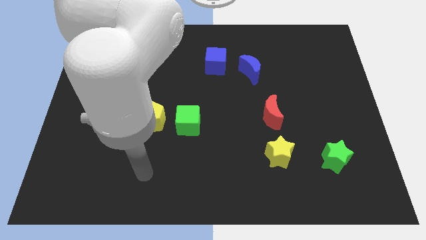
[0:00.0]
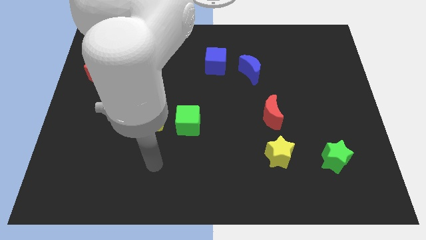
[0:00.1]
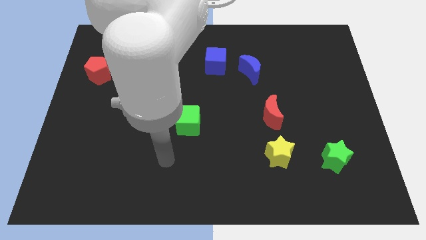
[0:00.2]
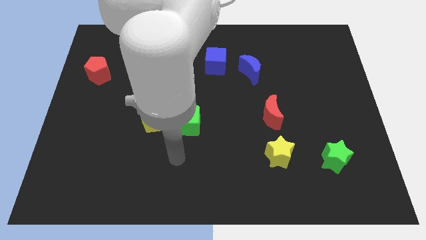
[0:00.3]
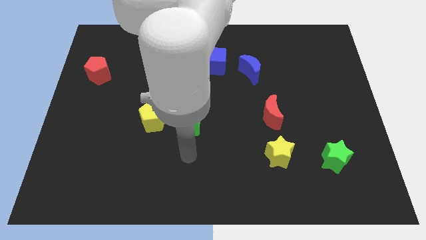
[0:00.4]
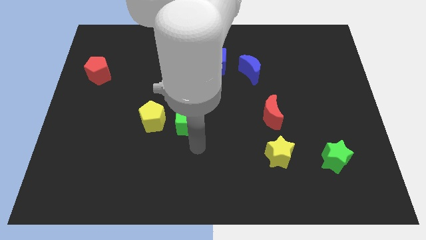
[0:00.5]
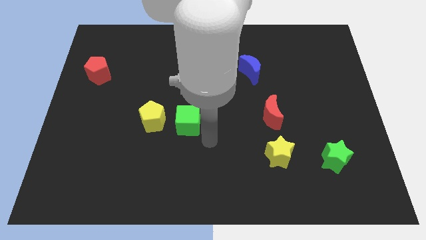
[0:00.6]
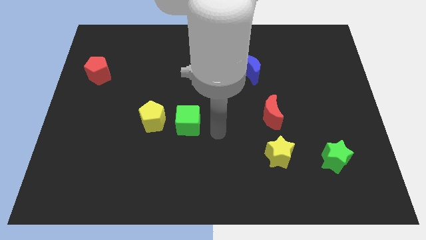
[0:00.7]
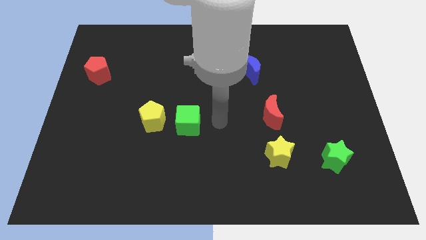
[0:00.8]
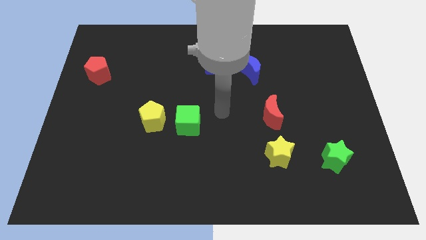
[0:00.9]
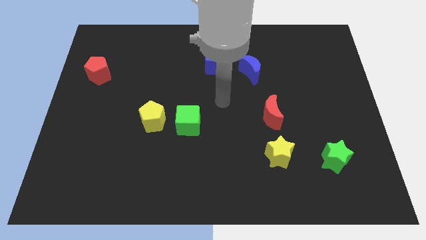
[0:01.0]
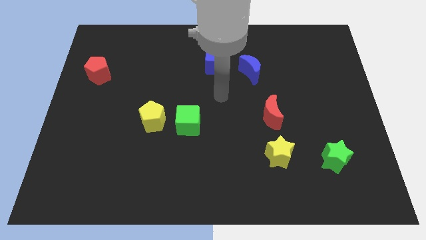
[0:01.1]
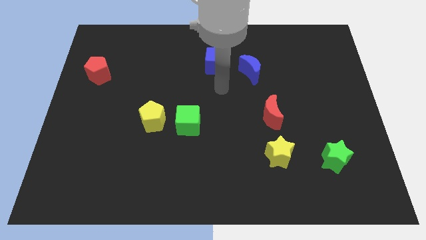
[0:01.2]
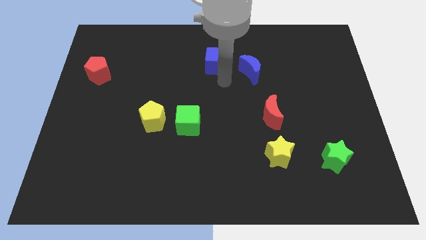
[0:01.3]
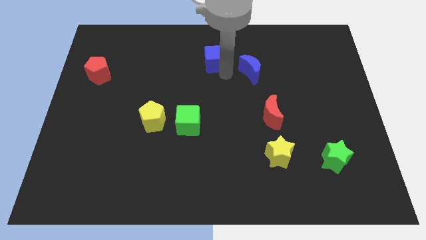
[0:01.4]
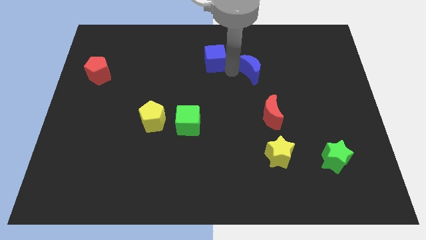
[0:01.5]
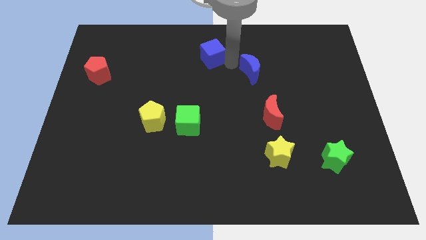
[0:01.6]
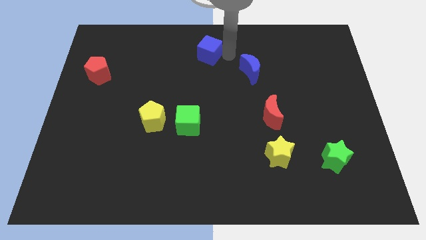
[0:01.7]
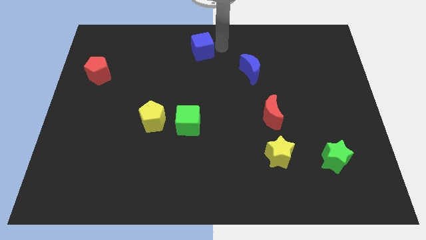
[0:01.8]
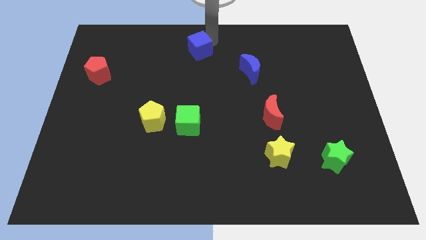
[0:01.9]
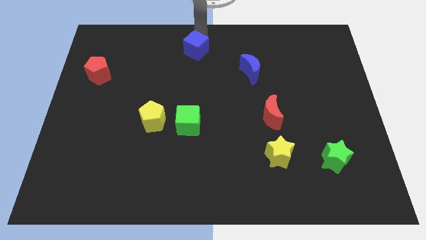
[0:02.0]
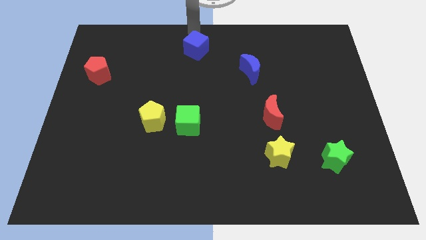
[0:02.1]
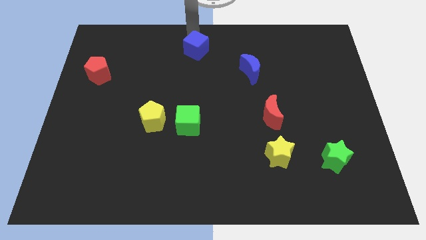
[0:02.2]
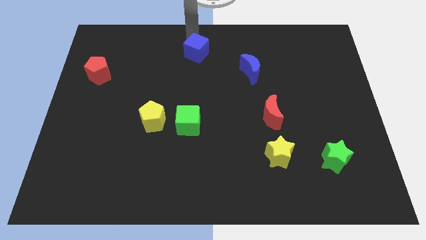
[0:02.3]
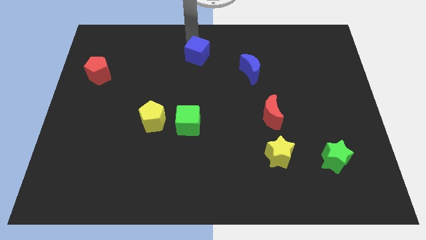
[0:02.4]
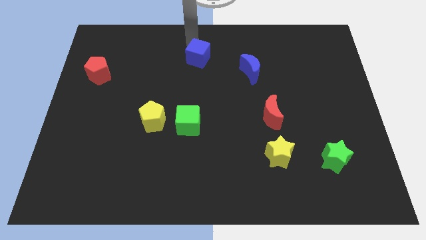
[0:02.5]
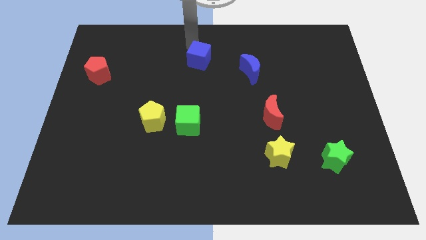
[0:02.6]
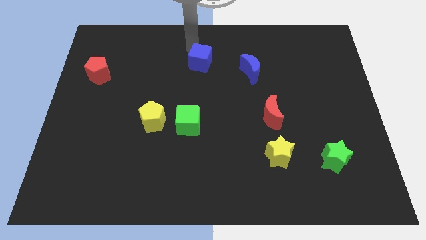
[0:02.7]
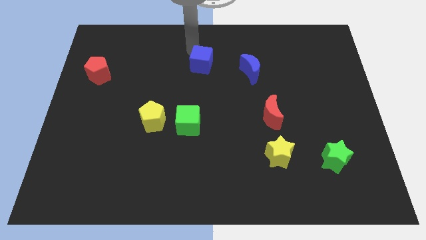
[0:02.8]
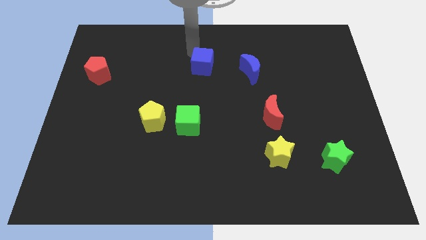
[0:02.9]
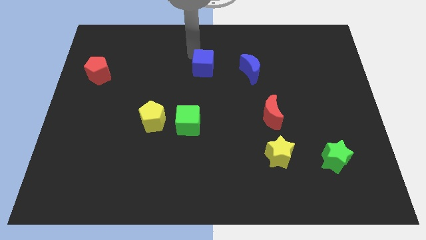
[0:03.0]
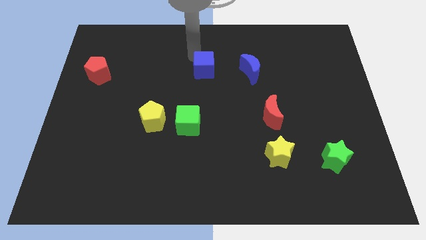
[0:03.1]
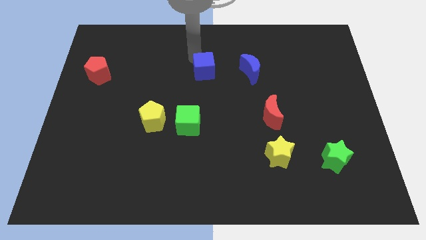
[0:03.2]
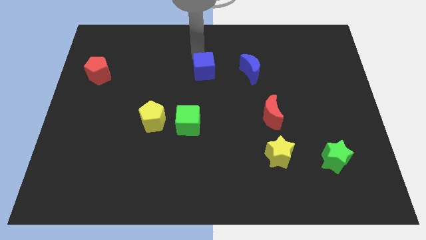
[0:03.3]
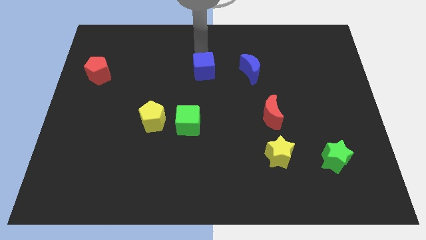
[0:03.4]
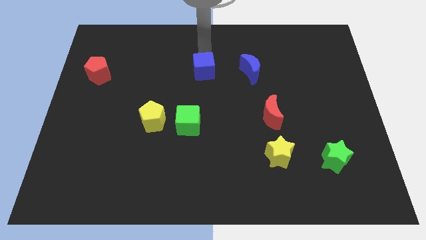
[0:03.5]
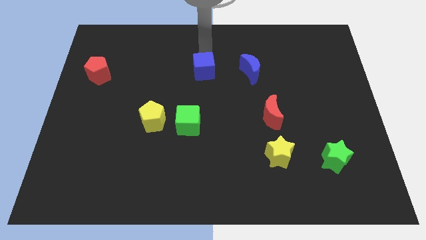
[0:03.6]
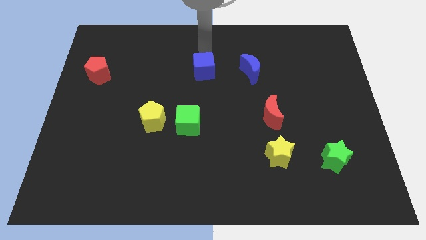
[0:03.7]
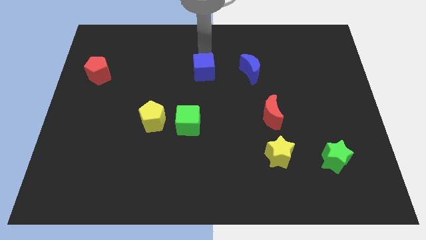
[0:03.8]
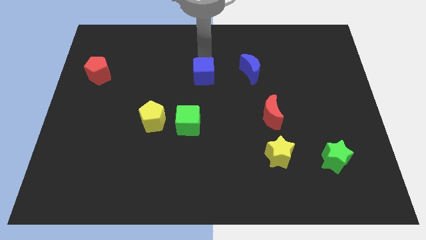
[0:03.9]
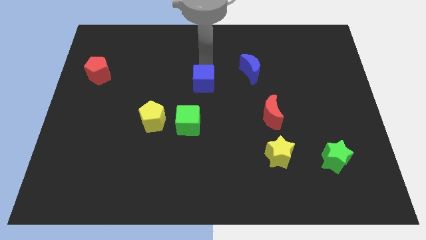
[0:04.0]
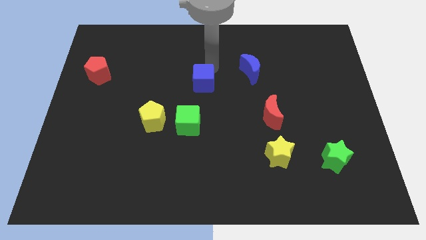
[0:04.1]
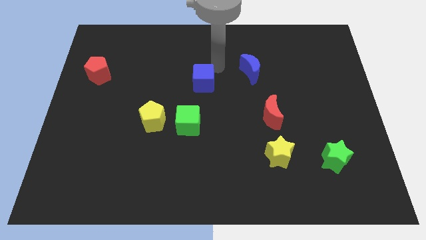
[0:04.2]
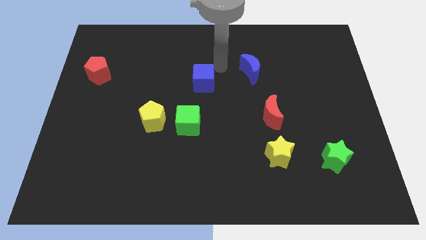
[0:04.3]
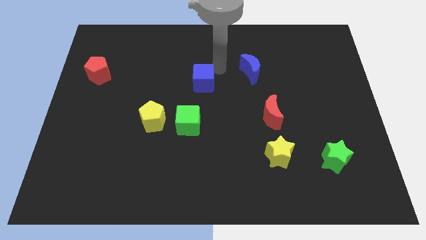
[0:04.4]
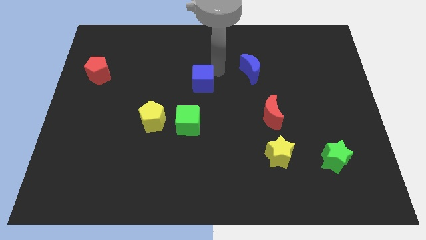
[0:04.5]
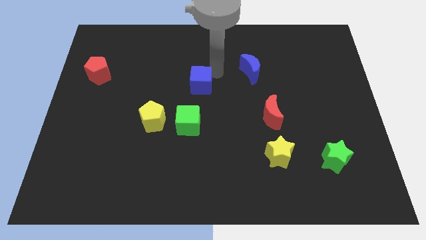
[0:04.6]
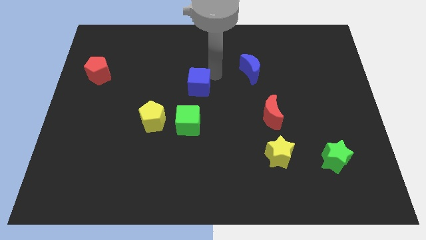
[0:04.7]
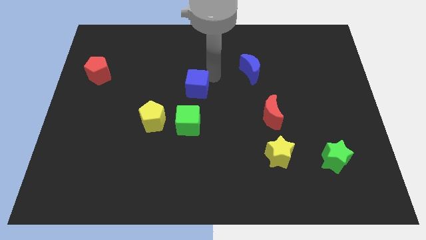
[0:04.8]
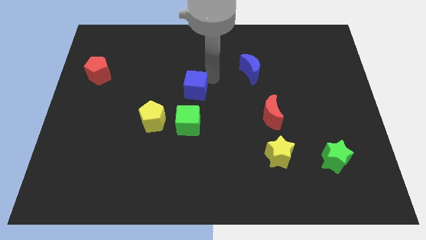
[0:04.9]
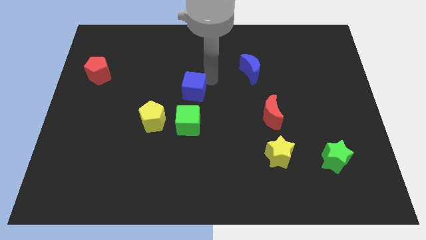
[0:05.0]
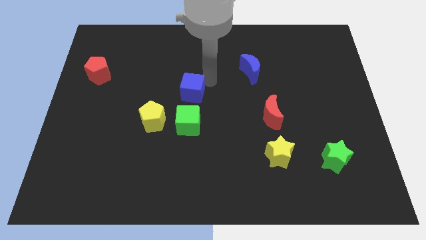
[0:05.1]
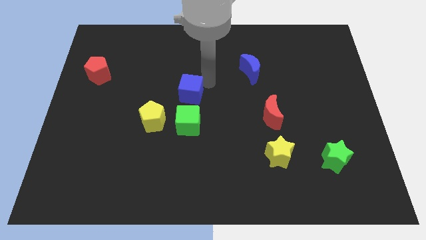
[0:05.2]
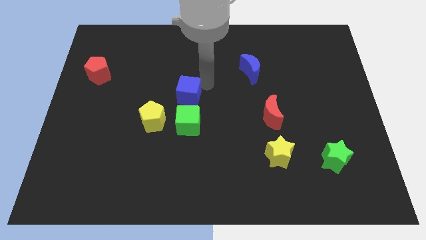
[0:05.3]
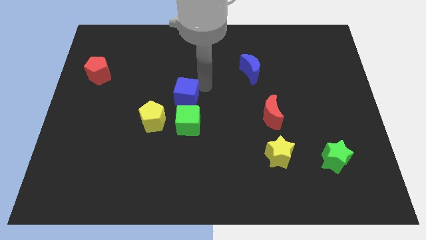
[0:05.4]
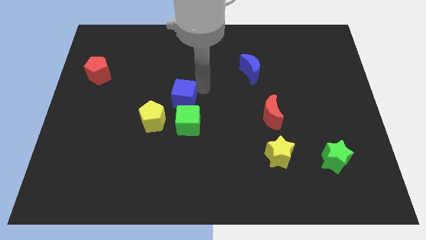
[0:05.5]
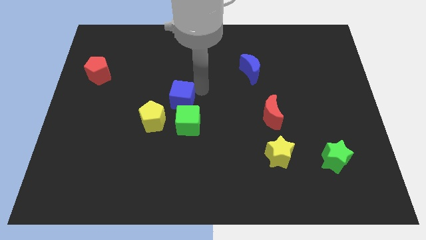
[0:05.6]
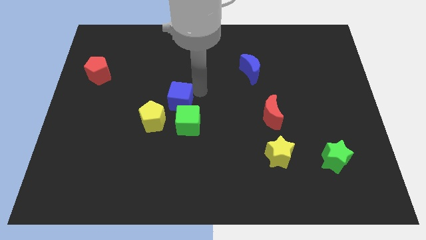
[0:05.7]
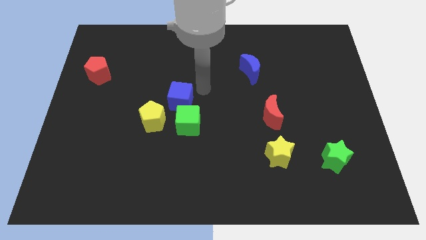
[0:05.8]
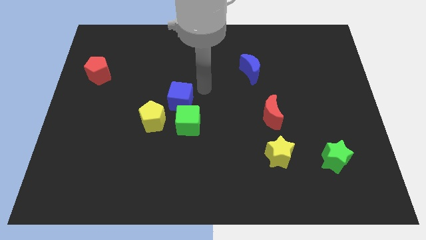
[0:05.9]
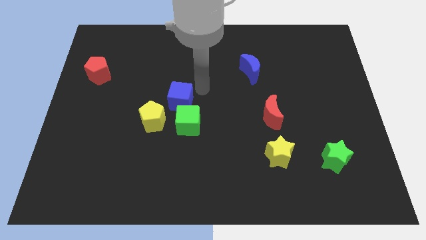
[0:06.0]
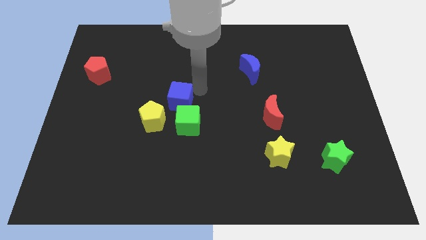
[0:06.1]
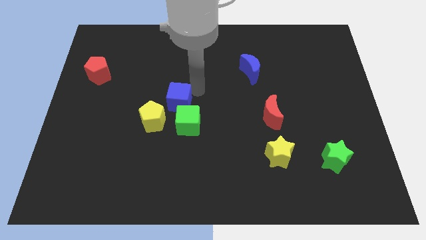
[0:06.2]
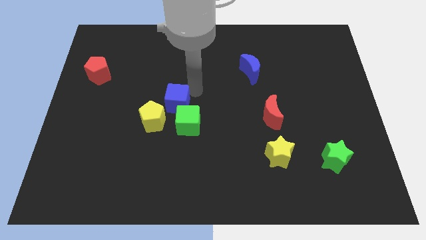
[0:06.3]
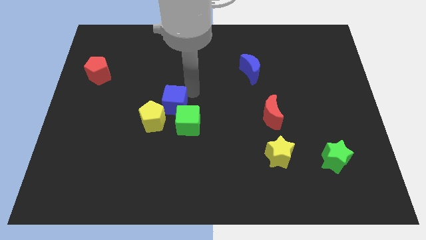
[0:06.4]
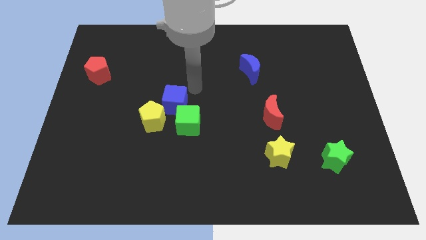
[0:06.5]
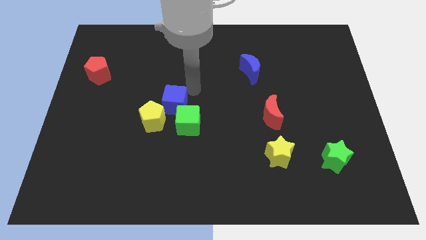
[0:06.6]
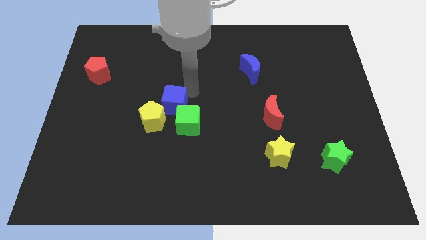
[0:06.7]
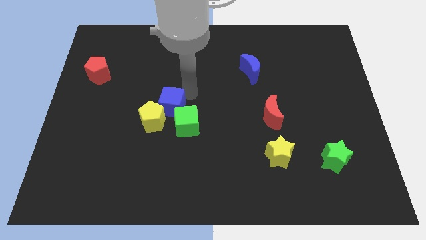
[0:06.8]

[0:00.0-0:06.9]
move the blue cube towards the yellow pentagon

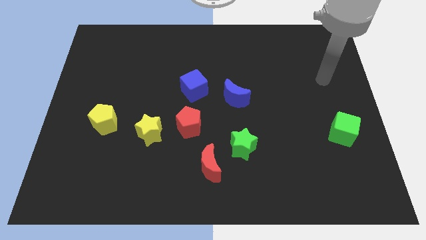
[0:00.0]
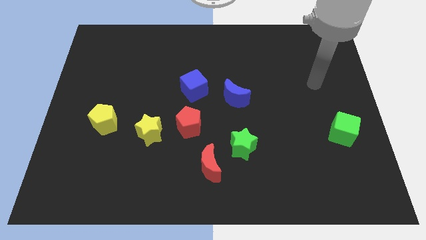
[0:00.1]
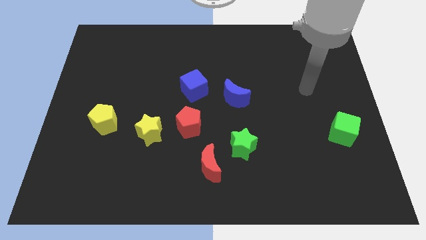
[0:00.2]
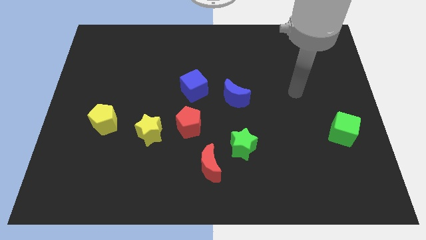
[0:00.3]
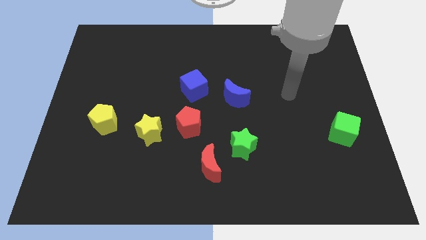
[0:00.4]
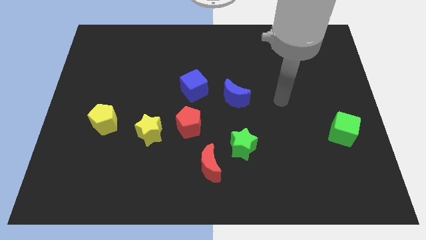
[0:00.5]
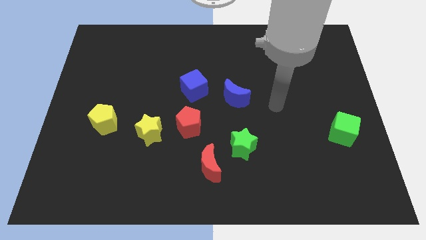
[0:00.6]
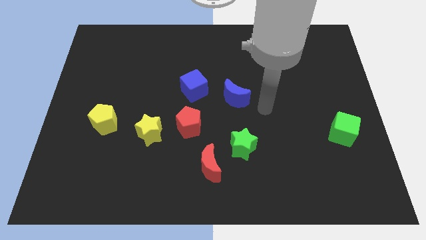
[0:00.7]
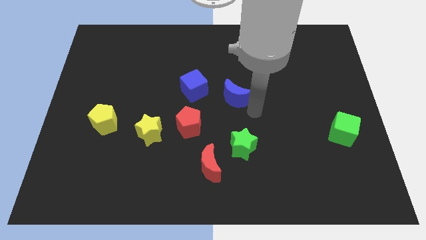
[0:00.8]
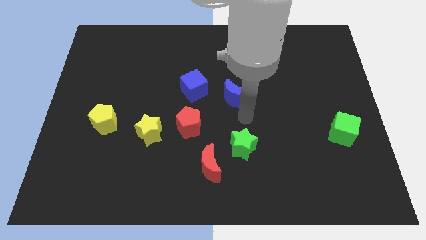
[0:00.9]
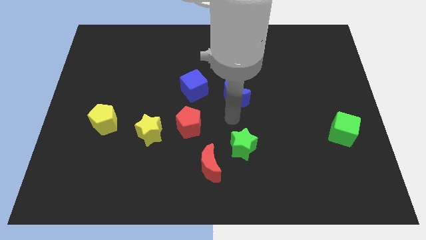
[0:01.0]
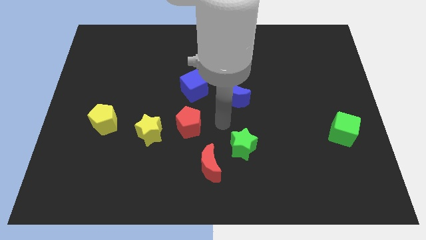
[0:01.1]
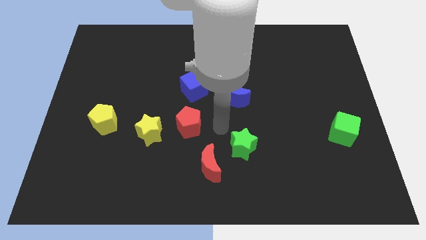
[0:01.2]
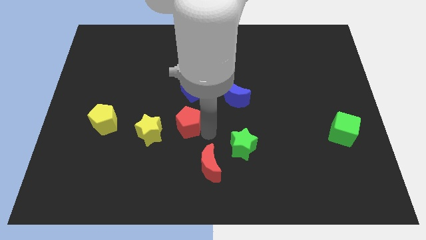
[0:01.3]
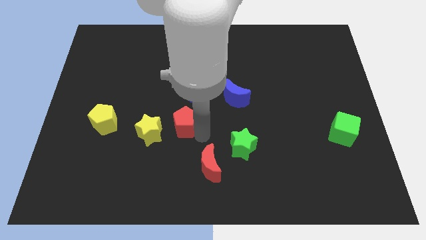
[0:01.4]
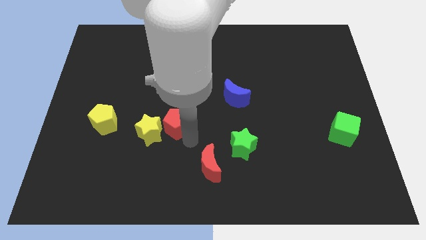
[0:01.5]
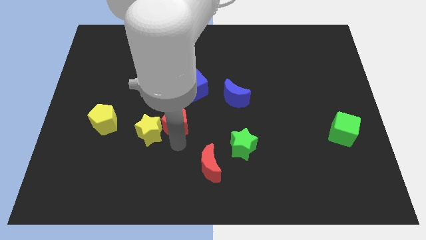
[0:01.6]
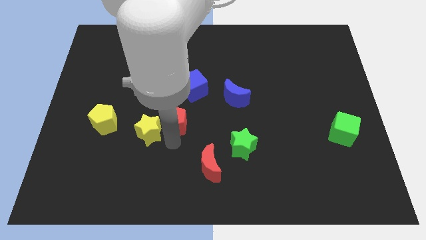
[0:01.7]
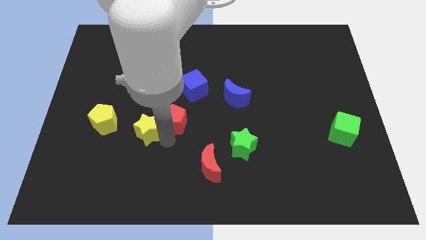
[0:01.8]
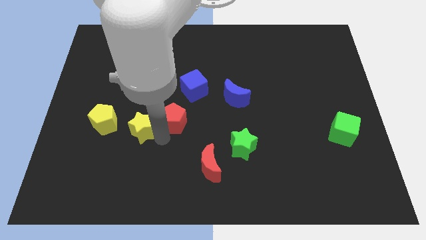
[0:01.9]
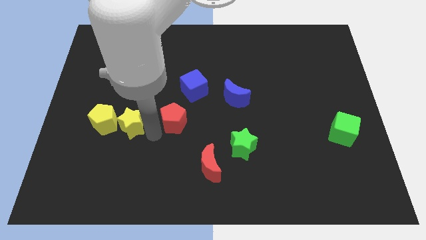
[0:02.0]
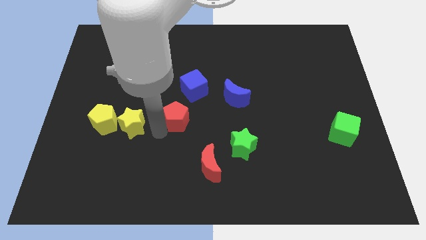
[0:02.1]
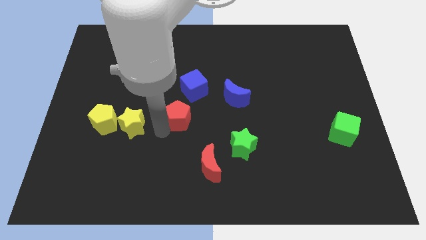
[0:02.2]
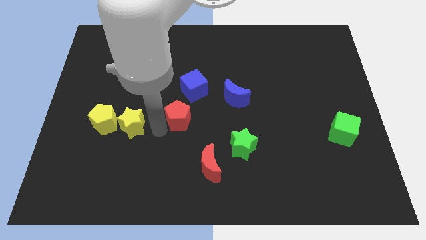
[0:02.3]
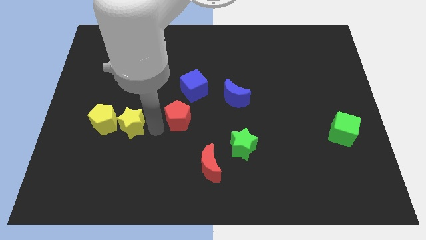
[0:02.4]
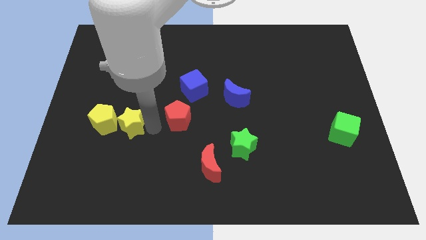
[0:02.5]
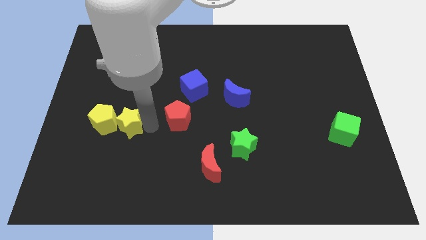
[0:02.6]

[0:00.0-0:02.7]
slide the yellow star next to the yellow pentagon
